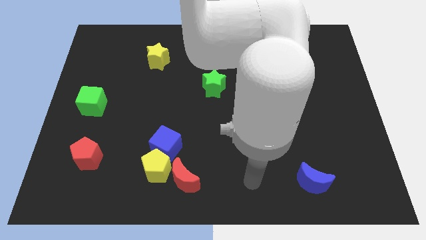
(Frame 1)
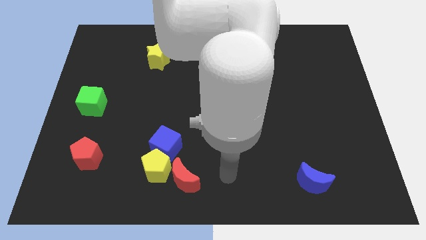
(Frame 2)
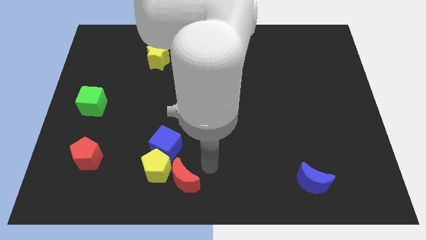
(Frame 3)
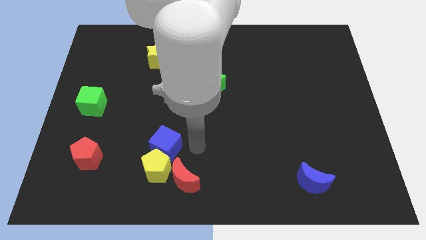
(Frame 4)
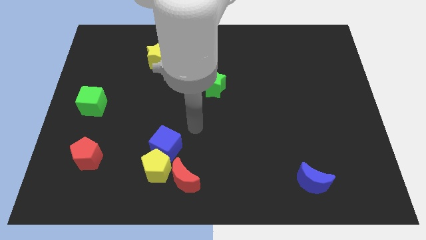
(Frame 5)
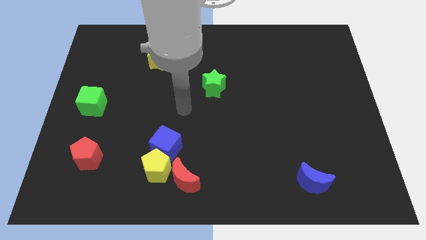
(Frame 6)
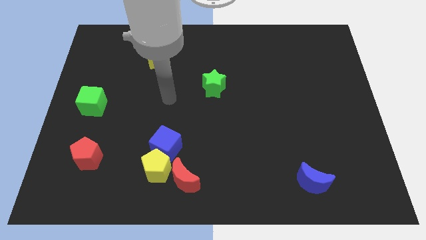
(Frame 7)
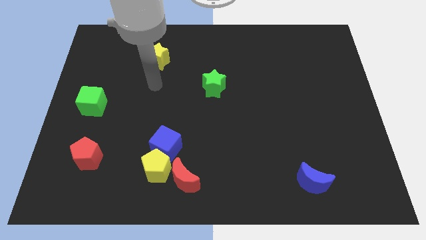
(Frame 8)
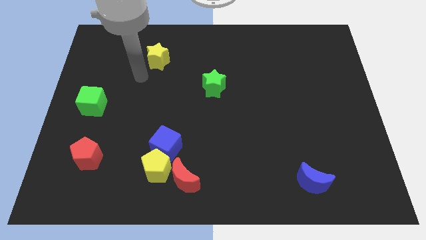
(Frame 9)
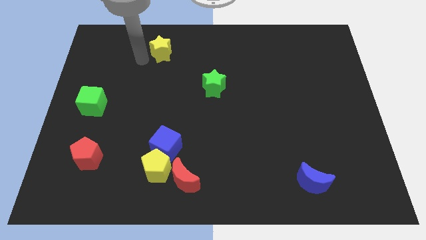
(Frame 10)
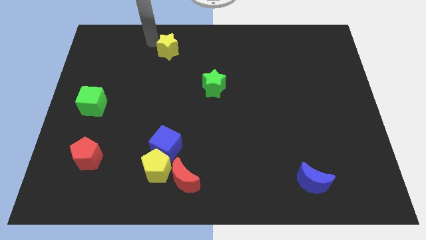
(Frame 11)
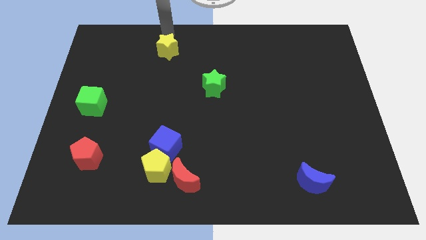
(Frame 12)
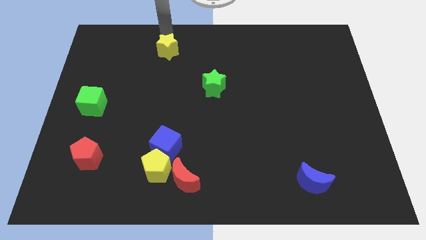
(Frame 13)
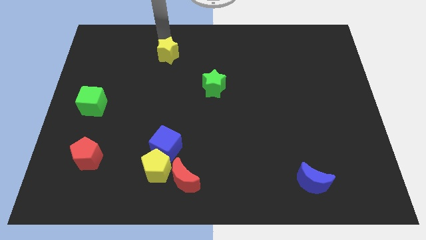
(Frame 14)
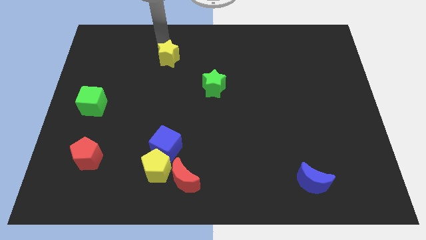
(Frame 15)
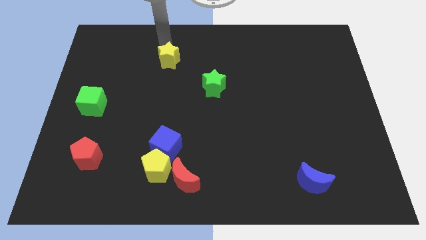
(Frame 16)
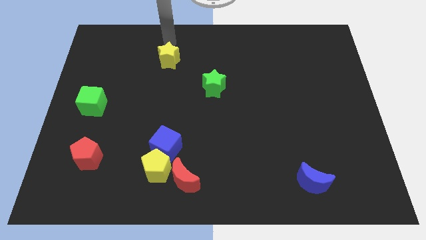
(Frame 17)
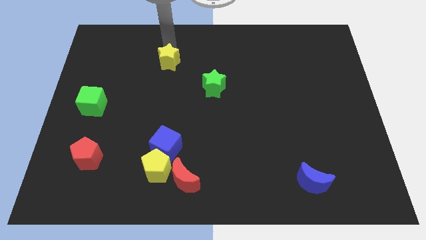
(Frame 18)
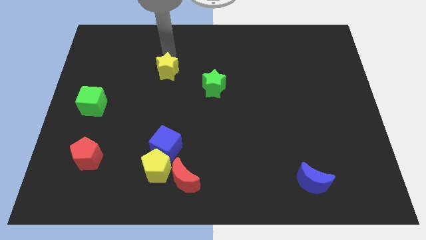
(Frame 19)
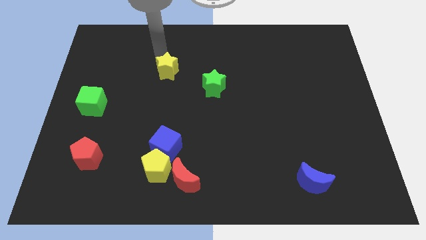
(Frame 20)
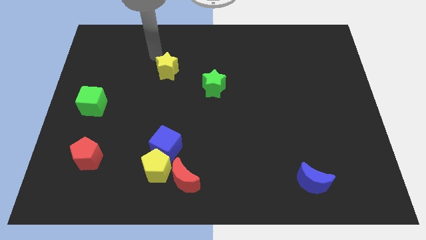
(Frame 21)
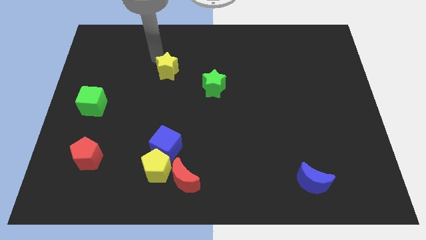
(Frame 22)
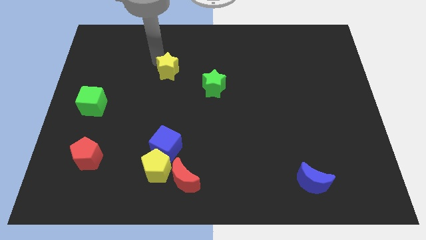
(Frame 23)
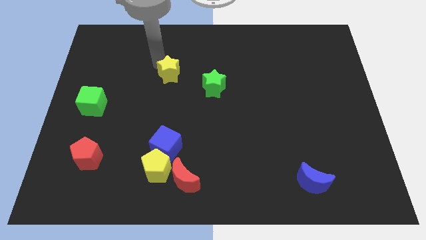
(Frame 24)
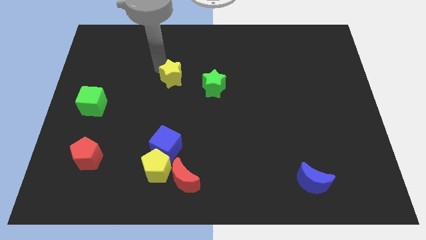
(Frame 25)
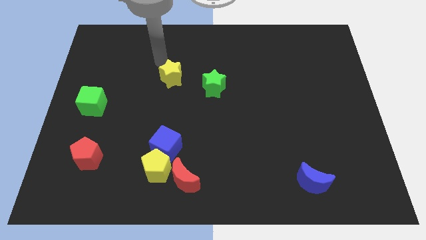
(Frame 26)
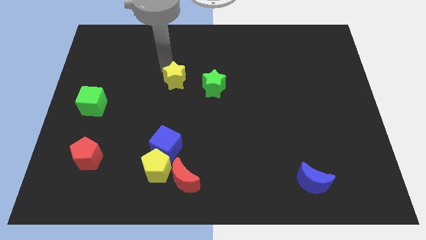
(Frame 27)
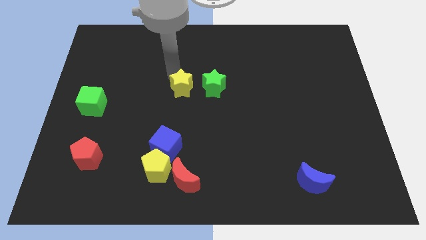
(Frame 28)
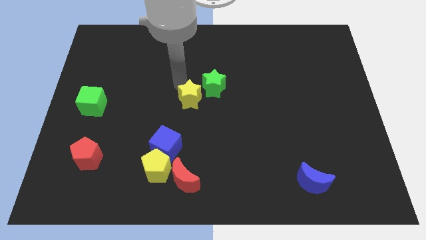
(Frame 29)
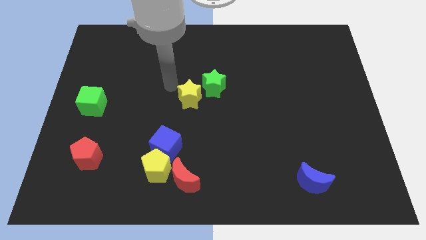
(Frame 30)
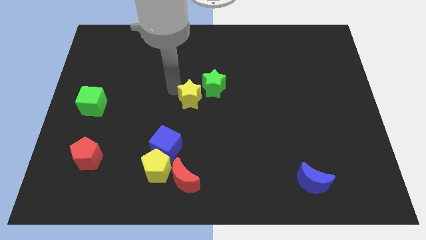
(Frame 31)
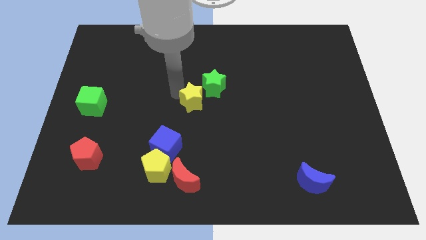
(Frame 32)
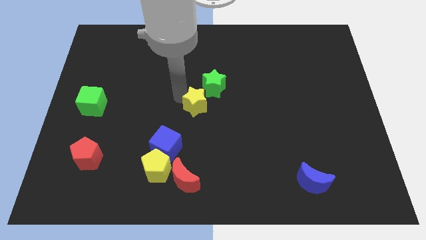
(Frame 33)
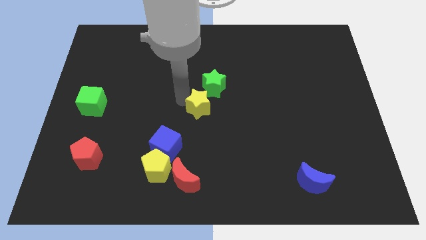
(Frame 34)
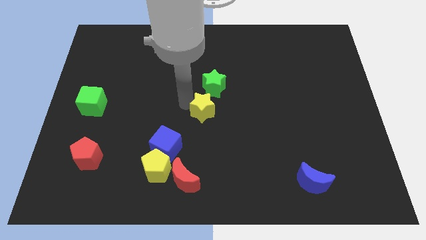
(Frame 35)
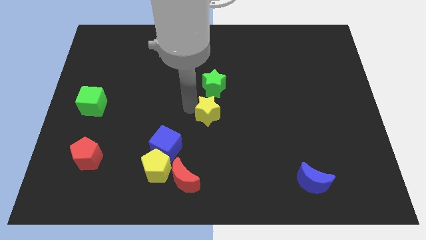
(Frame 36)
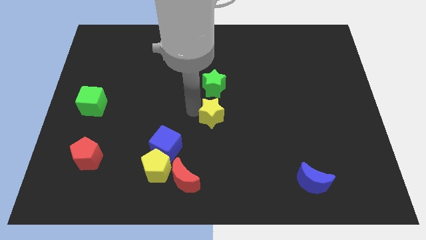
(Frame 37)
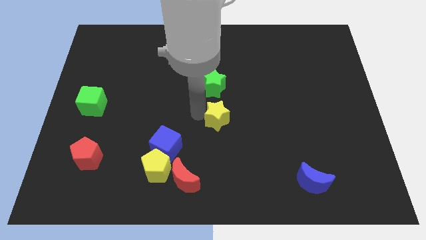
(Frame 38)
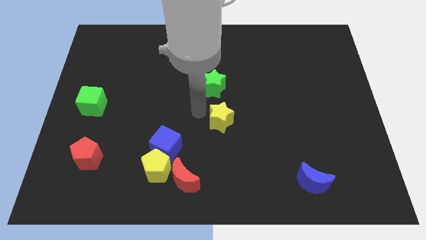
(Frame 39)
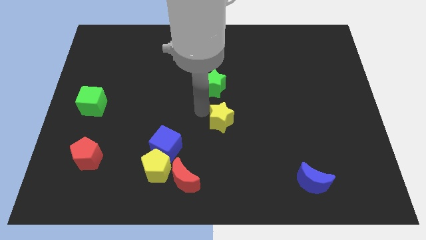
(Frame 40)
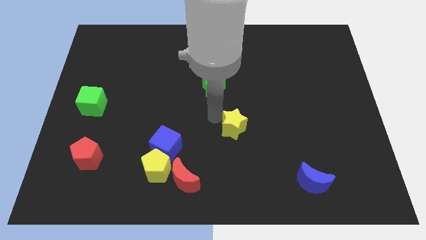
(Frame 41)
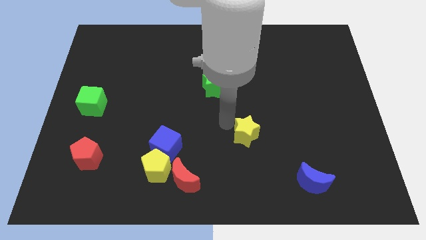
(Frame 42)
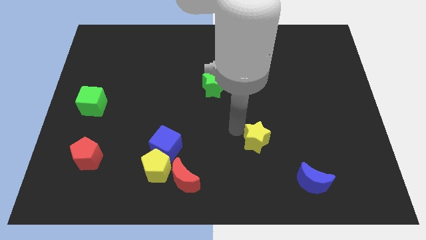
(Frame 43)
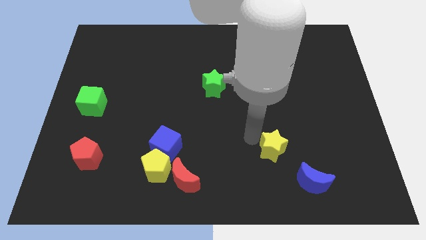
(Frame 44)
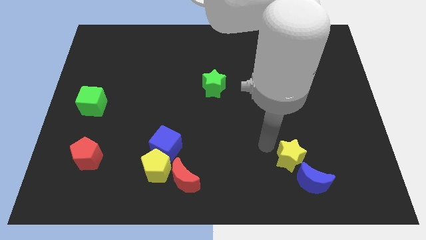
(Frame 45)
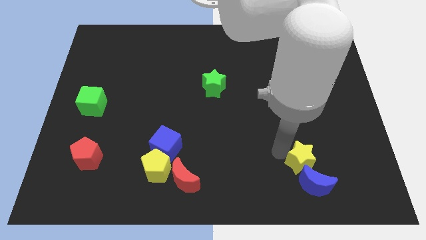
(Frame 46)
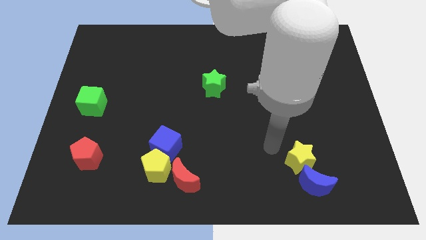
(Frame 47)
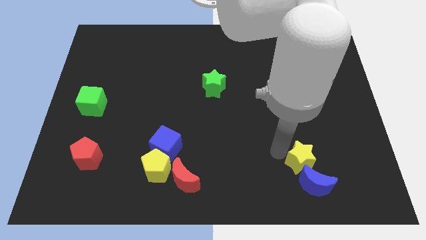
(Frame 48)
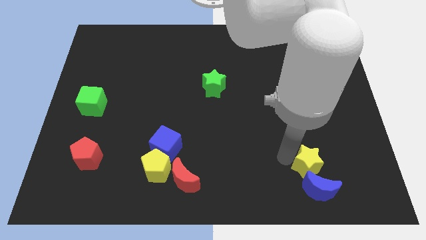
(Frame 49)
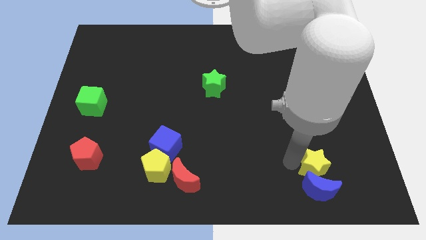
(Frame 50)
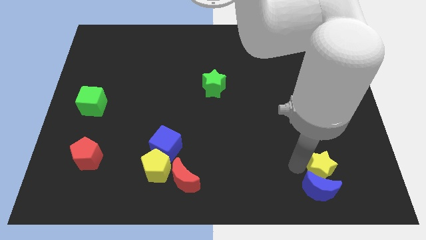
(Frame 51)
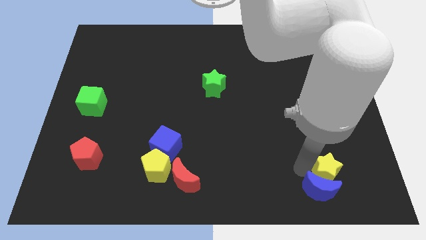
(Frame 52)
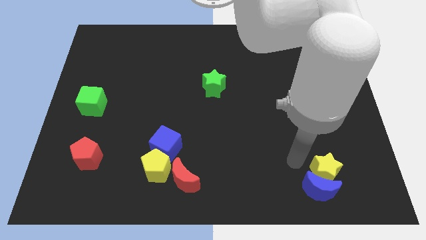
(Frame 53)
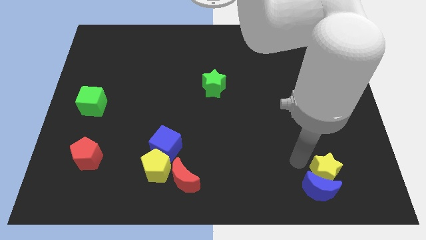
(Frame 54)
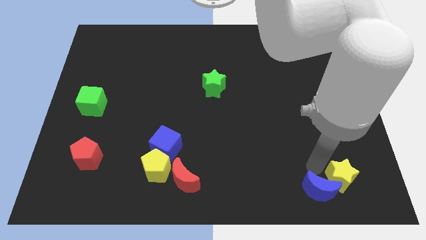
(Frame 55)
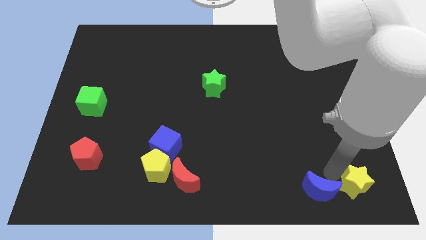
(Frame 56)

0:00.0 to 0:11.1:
move the yellow star to the bottom right
